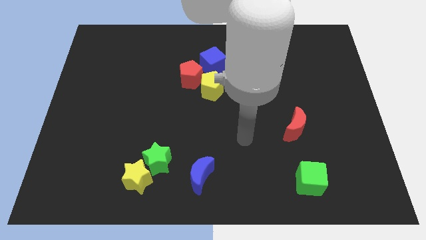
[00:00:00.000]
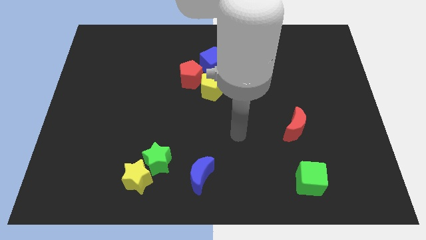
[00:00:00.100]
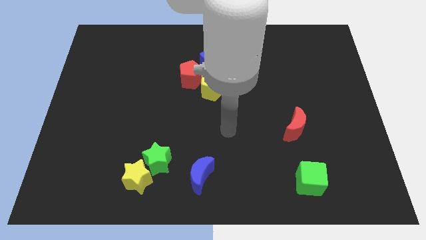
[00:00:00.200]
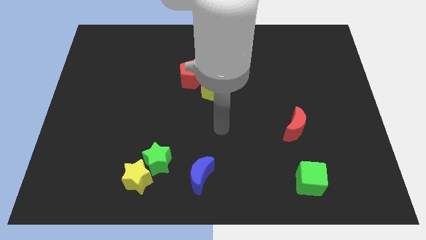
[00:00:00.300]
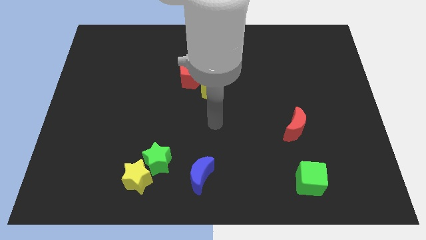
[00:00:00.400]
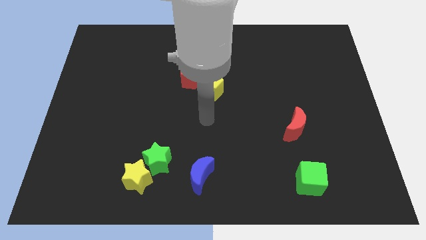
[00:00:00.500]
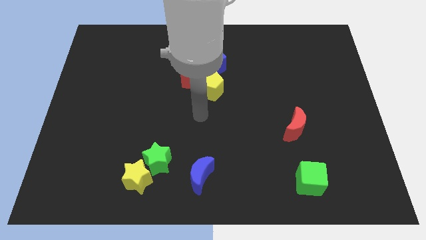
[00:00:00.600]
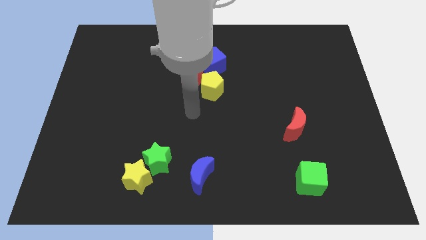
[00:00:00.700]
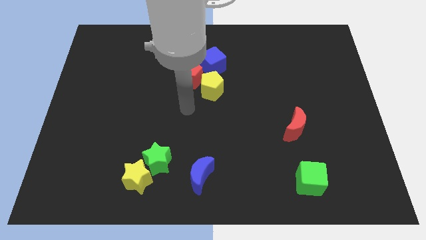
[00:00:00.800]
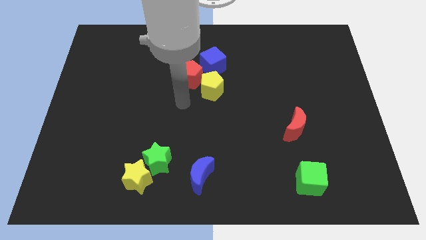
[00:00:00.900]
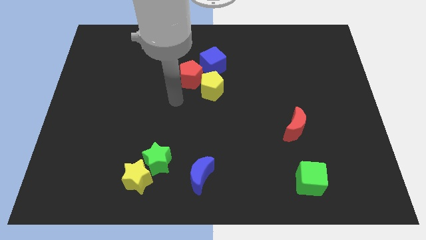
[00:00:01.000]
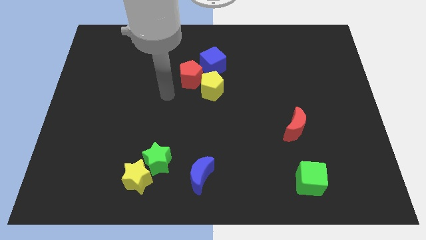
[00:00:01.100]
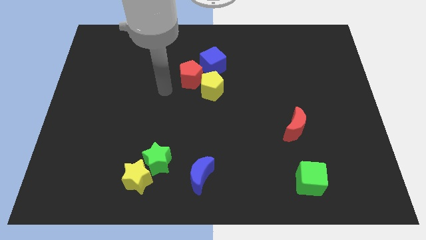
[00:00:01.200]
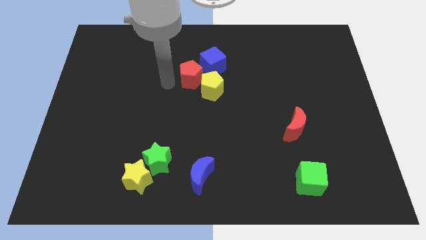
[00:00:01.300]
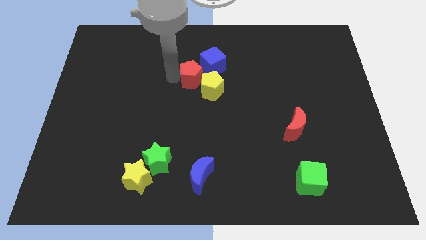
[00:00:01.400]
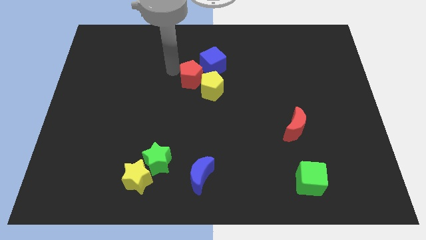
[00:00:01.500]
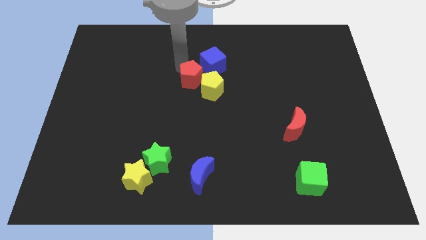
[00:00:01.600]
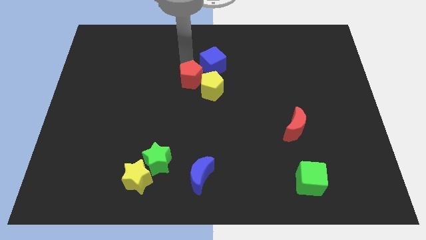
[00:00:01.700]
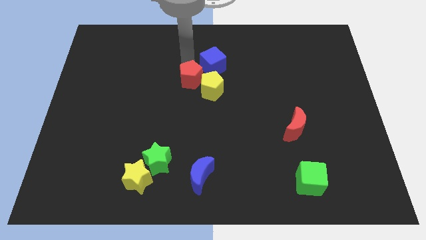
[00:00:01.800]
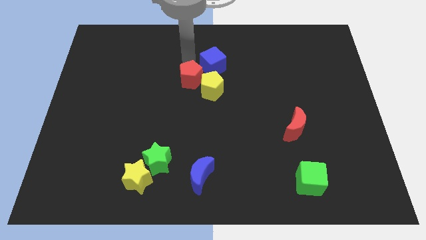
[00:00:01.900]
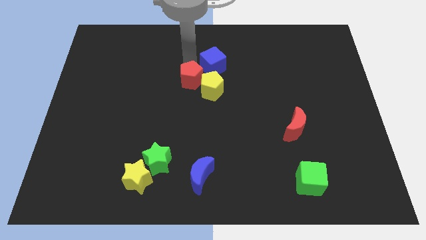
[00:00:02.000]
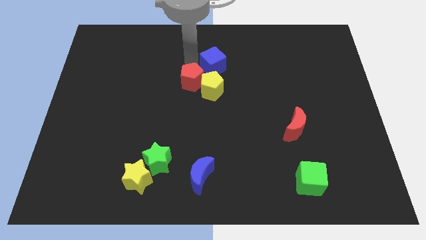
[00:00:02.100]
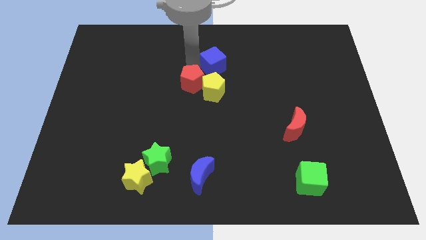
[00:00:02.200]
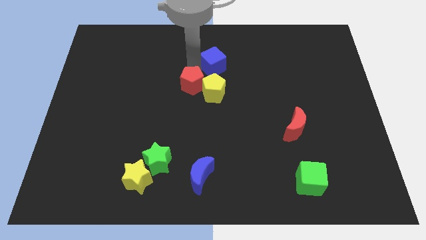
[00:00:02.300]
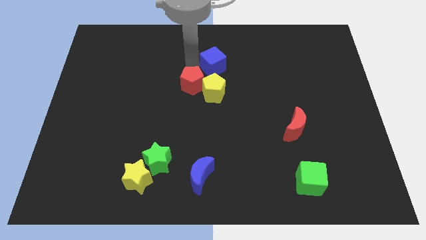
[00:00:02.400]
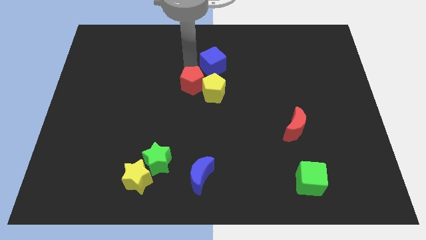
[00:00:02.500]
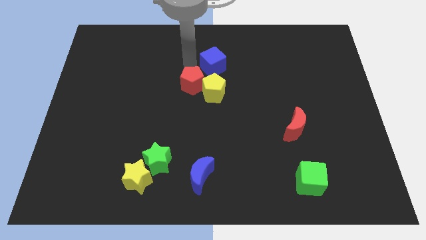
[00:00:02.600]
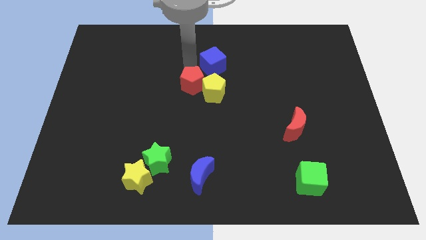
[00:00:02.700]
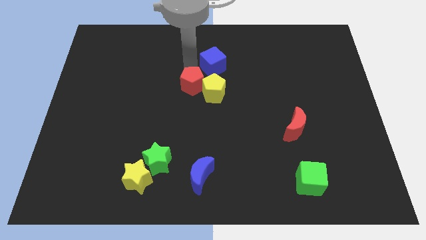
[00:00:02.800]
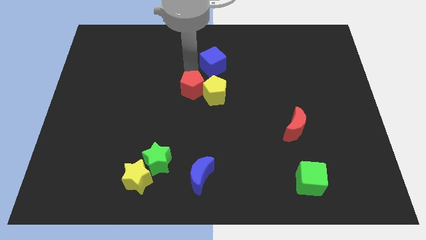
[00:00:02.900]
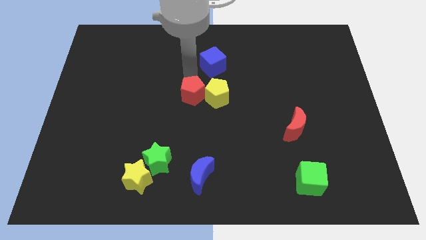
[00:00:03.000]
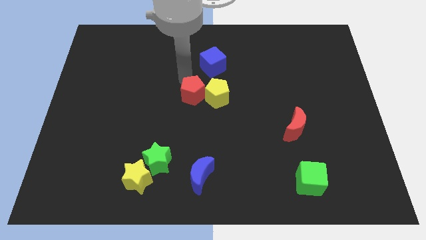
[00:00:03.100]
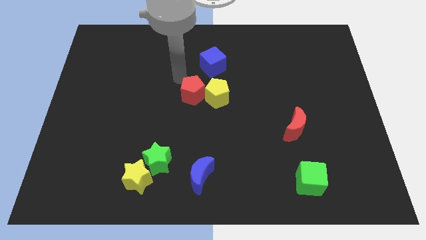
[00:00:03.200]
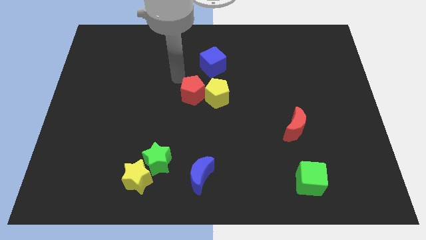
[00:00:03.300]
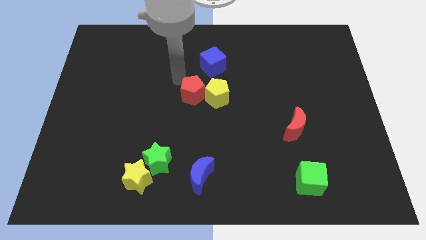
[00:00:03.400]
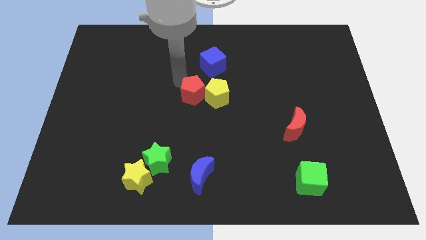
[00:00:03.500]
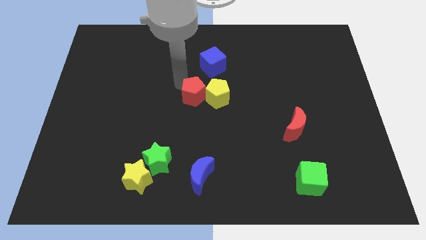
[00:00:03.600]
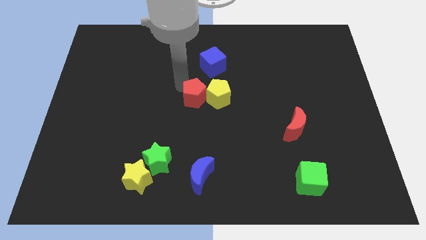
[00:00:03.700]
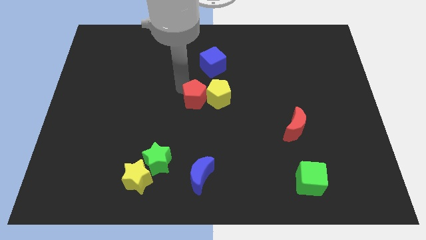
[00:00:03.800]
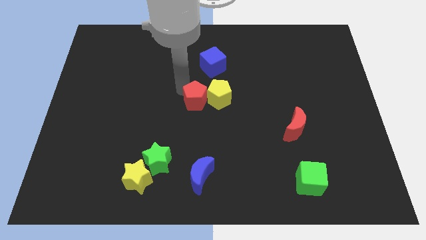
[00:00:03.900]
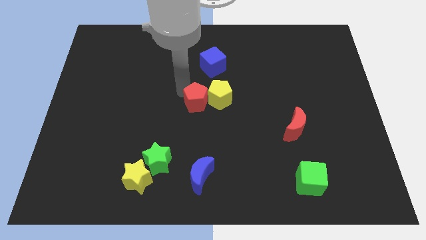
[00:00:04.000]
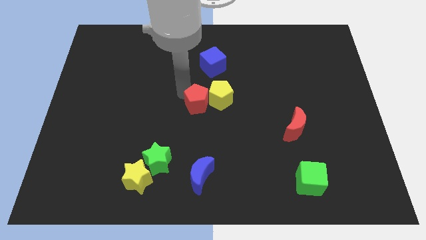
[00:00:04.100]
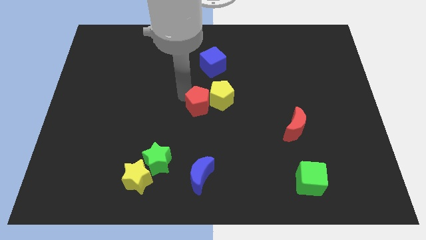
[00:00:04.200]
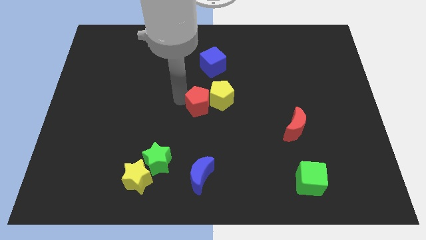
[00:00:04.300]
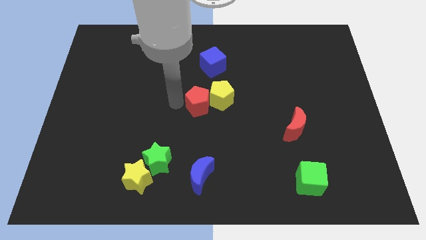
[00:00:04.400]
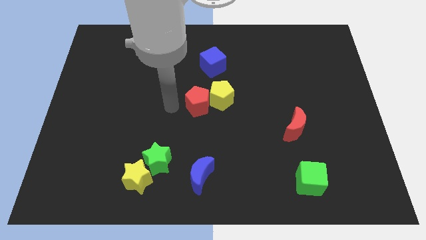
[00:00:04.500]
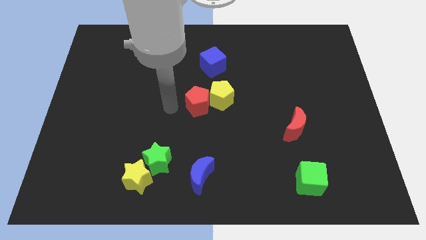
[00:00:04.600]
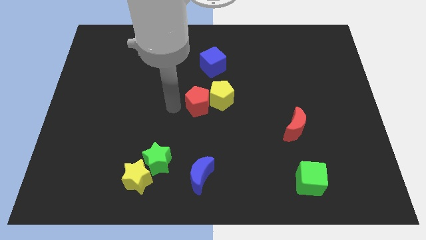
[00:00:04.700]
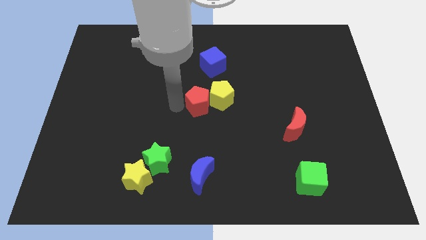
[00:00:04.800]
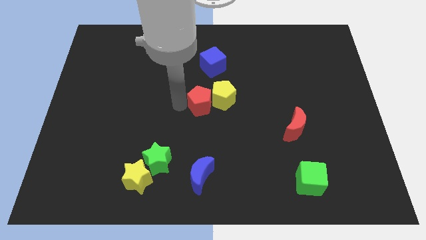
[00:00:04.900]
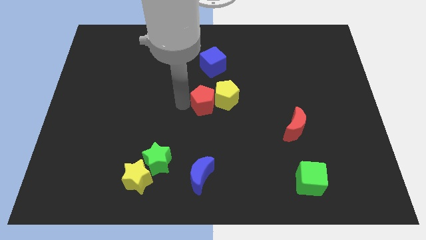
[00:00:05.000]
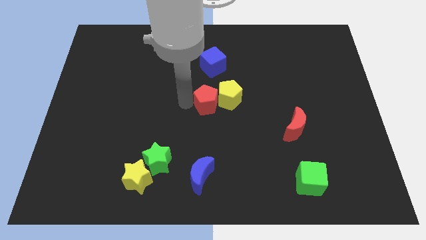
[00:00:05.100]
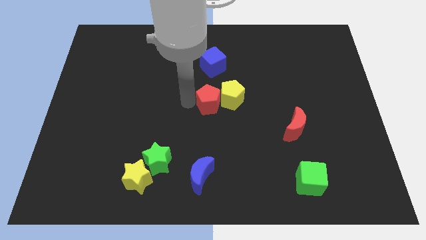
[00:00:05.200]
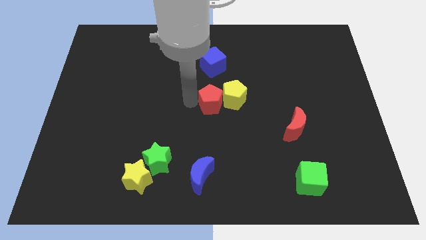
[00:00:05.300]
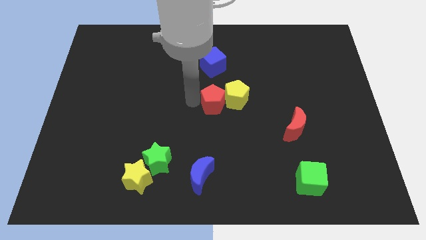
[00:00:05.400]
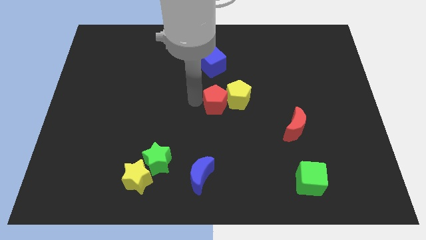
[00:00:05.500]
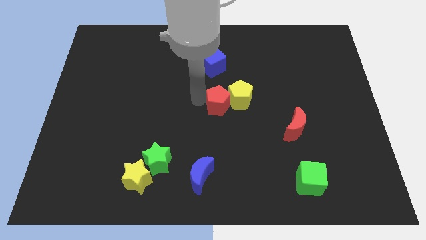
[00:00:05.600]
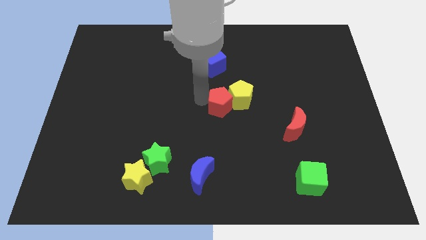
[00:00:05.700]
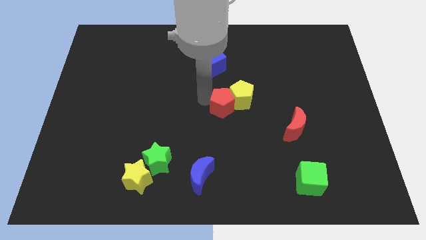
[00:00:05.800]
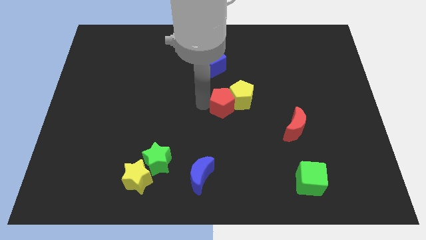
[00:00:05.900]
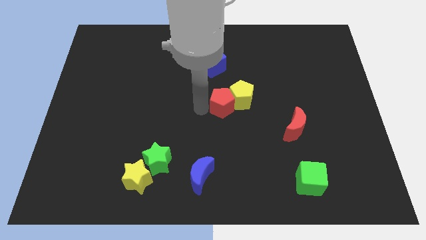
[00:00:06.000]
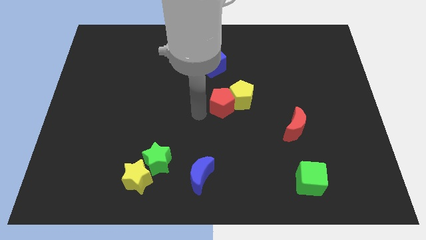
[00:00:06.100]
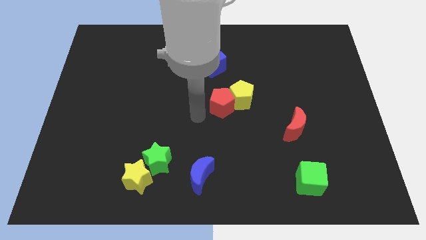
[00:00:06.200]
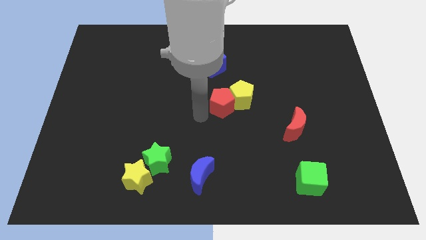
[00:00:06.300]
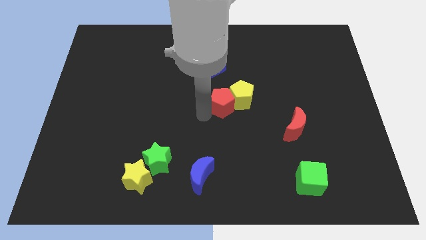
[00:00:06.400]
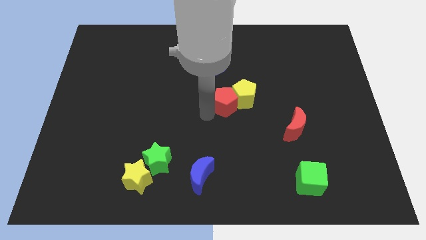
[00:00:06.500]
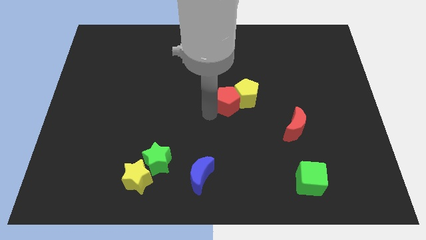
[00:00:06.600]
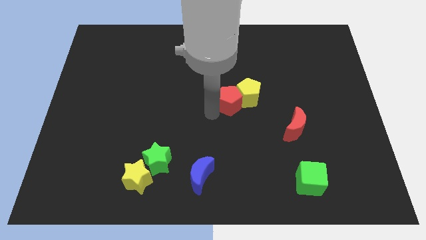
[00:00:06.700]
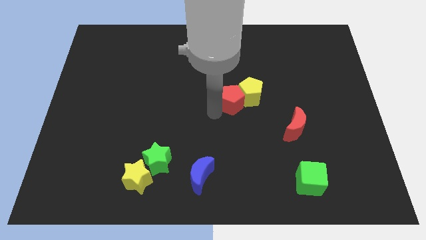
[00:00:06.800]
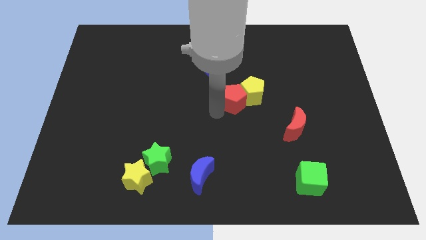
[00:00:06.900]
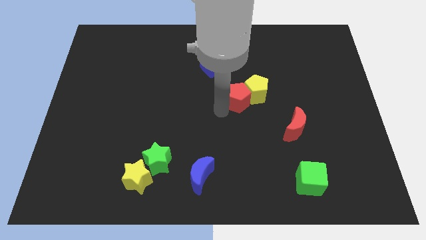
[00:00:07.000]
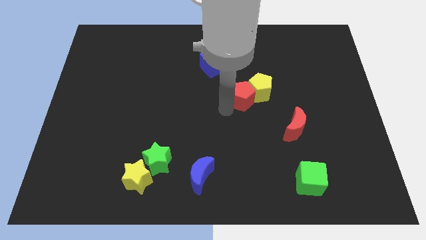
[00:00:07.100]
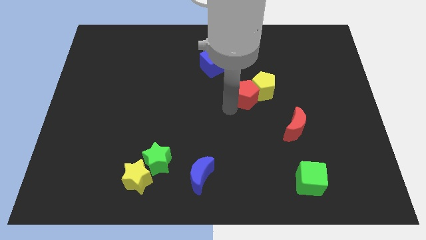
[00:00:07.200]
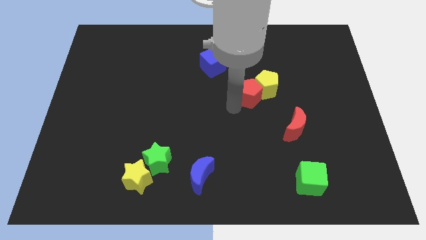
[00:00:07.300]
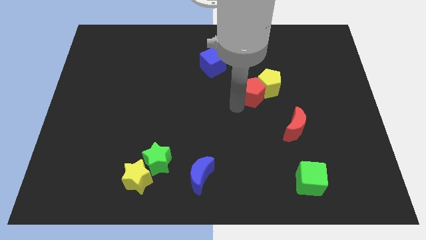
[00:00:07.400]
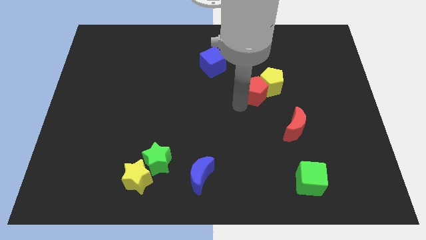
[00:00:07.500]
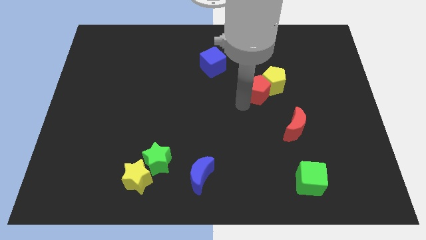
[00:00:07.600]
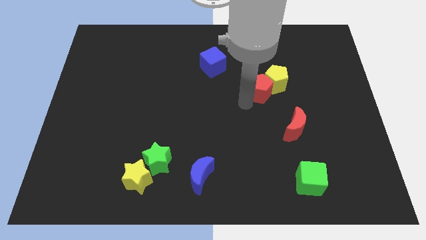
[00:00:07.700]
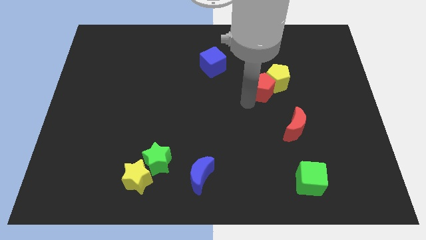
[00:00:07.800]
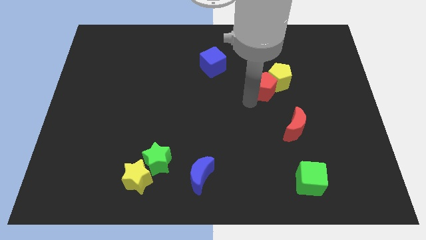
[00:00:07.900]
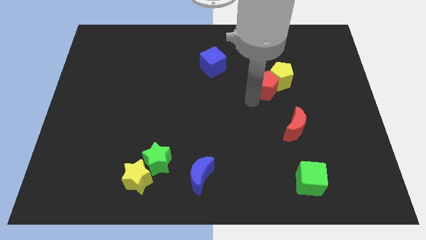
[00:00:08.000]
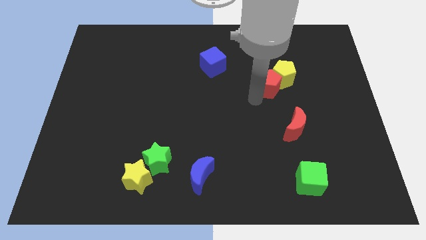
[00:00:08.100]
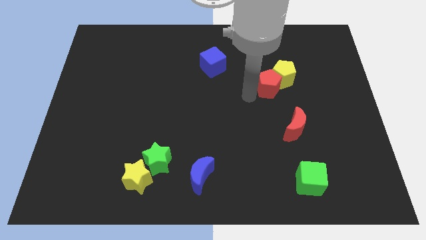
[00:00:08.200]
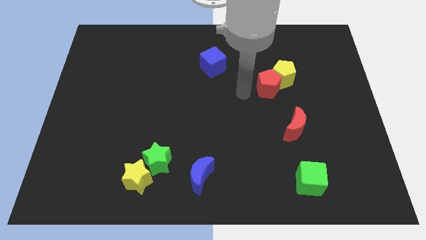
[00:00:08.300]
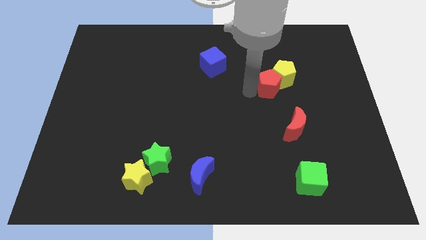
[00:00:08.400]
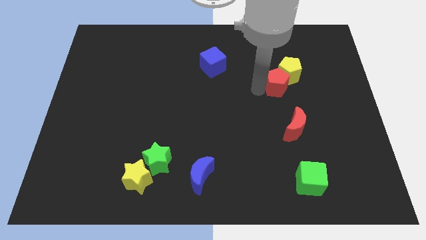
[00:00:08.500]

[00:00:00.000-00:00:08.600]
move the red pentagon to the right
